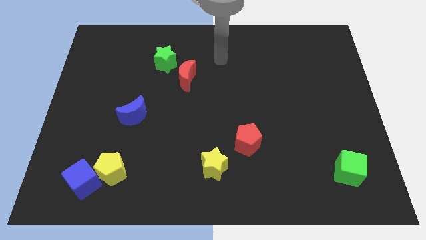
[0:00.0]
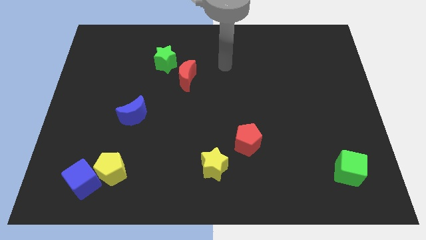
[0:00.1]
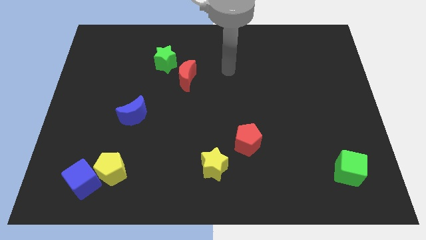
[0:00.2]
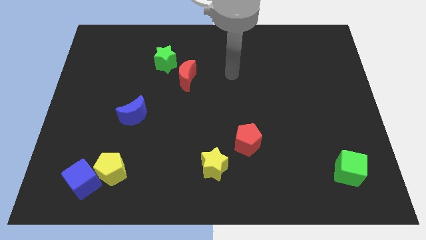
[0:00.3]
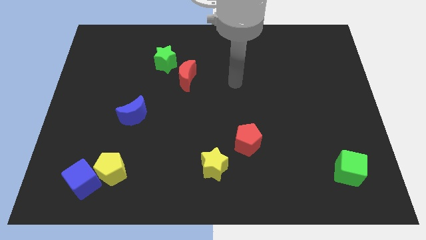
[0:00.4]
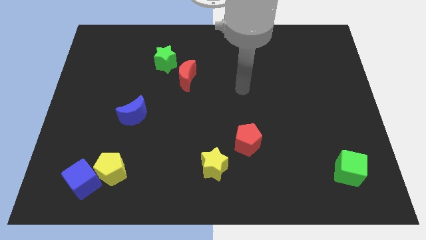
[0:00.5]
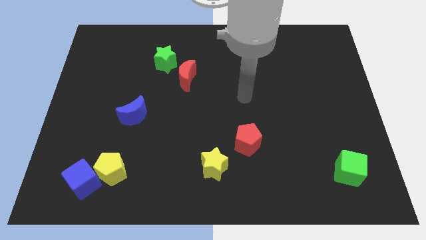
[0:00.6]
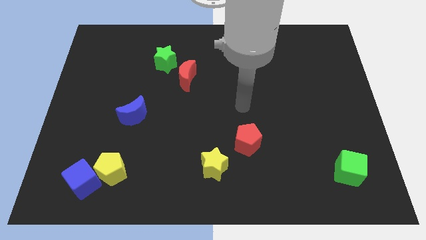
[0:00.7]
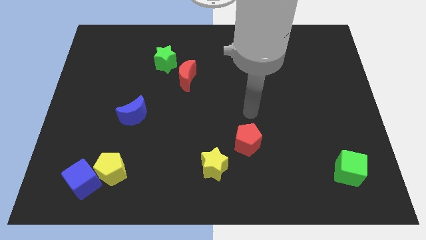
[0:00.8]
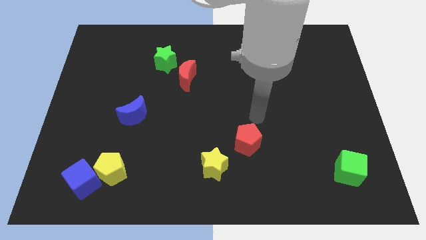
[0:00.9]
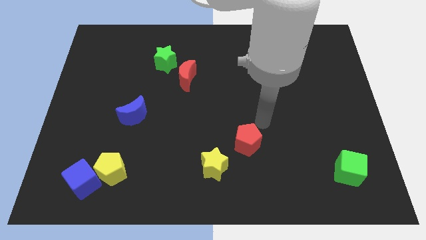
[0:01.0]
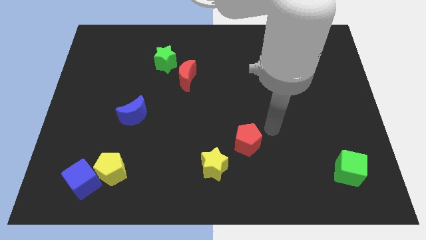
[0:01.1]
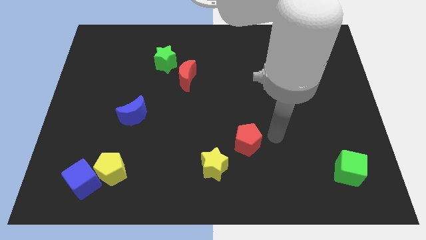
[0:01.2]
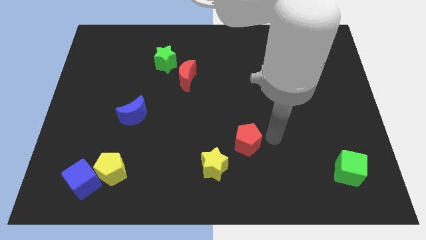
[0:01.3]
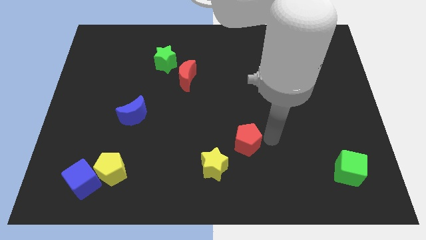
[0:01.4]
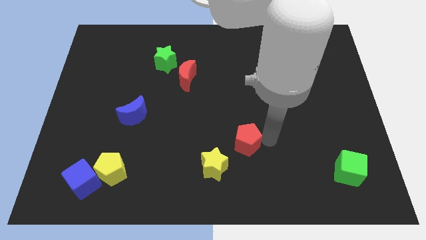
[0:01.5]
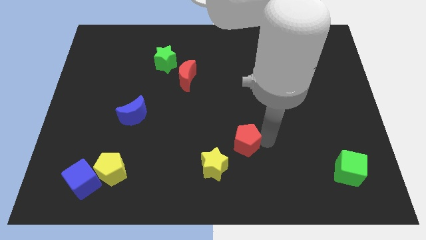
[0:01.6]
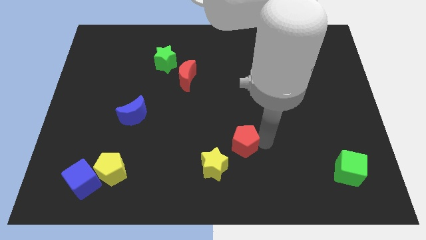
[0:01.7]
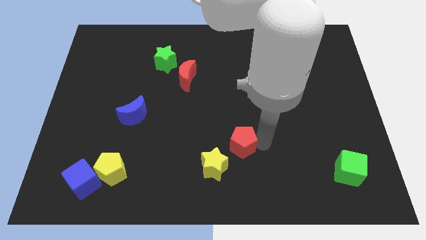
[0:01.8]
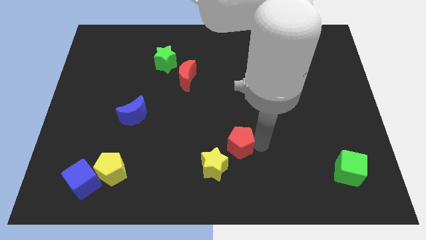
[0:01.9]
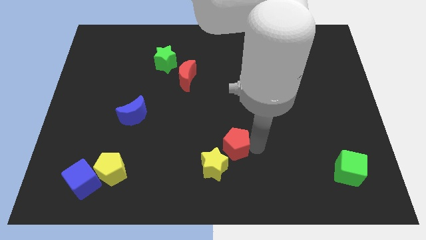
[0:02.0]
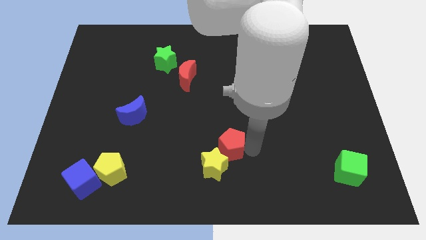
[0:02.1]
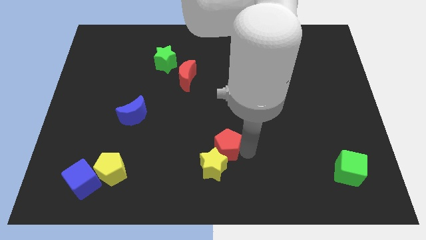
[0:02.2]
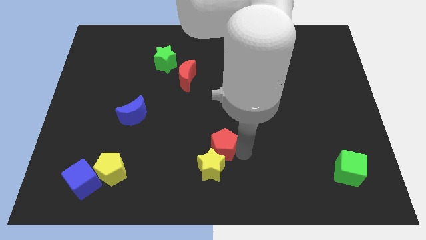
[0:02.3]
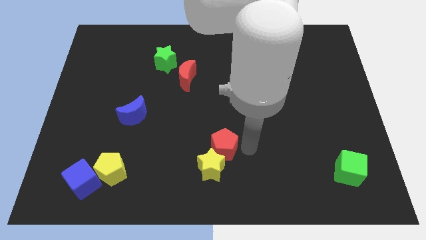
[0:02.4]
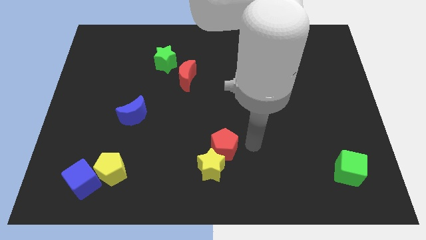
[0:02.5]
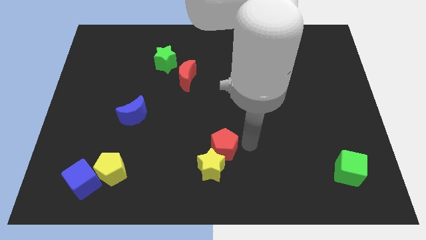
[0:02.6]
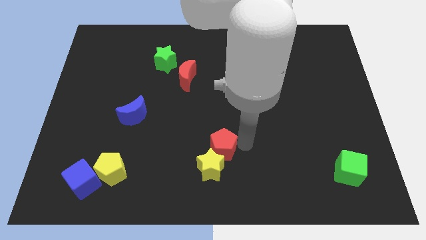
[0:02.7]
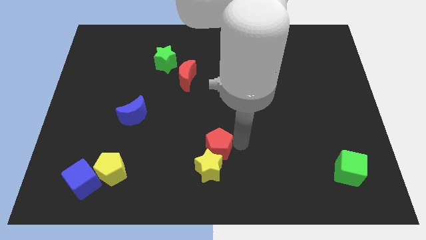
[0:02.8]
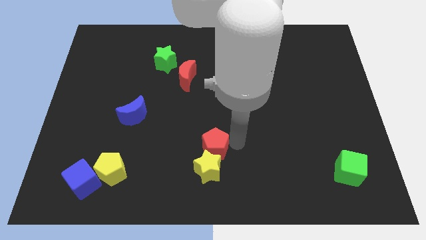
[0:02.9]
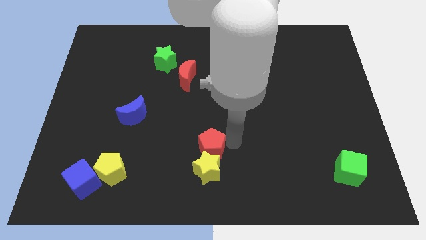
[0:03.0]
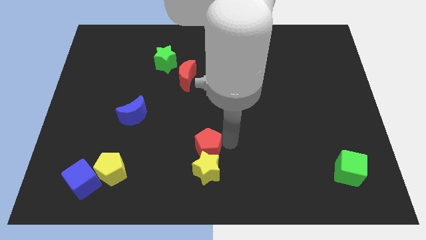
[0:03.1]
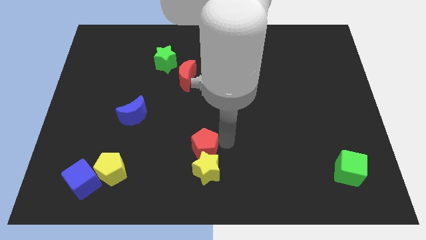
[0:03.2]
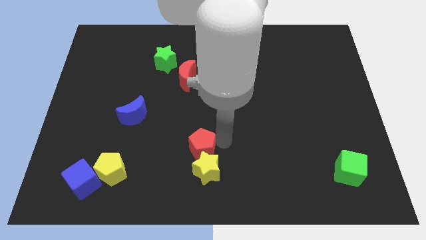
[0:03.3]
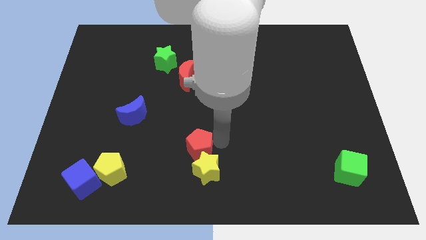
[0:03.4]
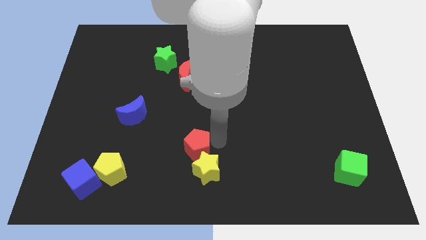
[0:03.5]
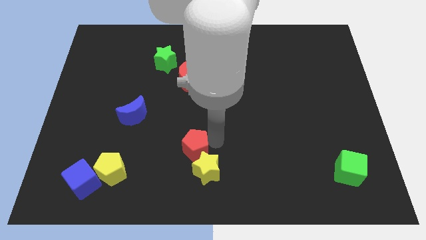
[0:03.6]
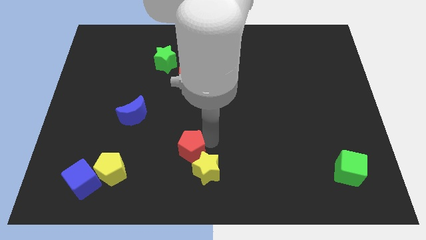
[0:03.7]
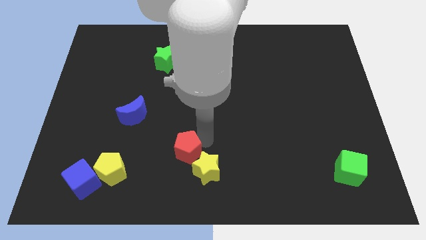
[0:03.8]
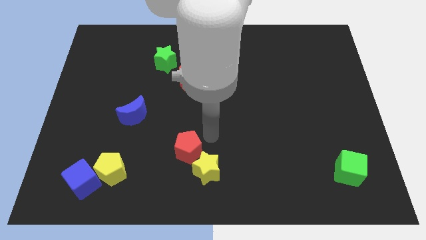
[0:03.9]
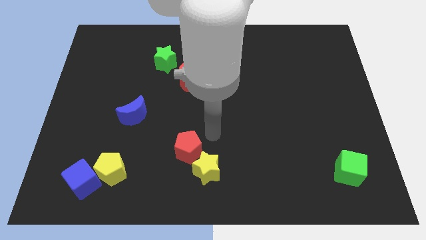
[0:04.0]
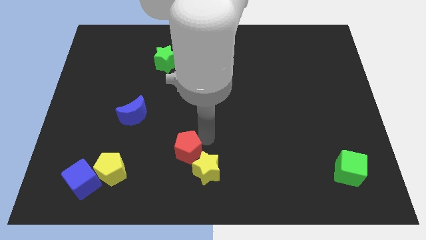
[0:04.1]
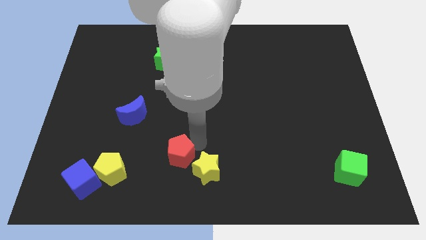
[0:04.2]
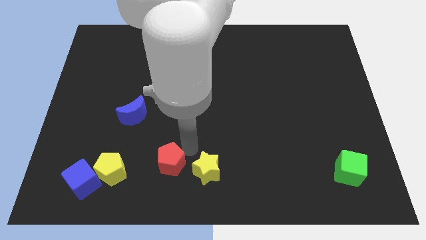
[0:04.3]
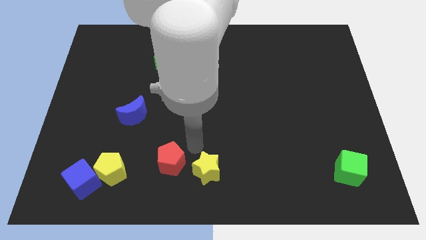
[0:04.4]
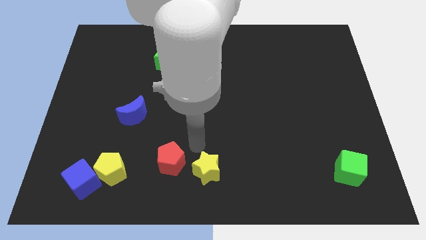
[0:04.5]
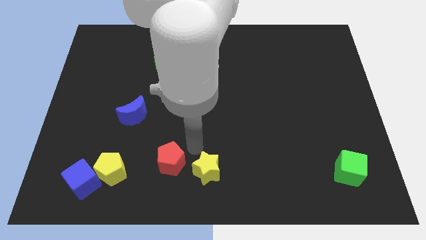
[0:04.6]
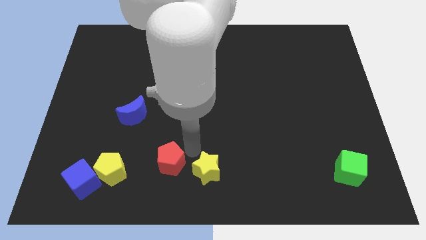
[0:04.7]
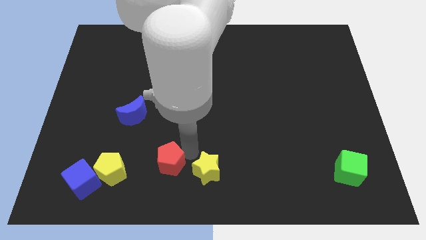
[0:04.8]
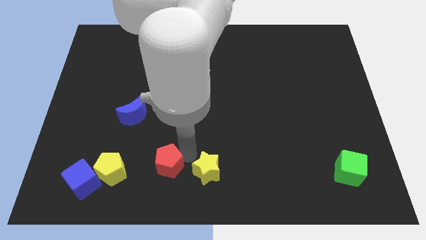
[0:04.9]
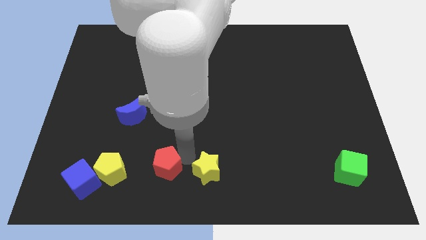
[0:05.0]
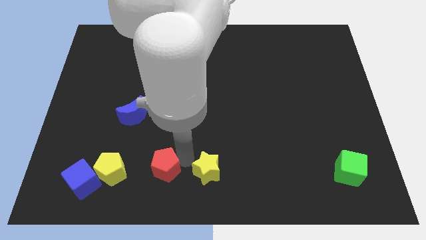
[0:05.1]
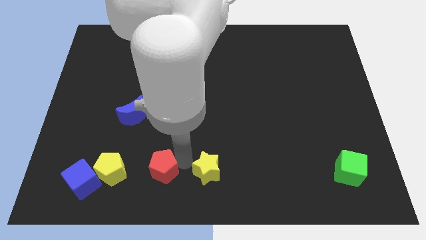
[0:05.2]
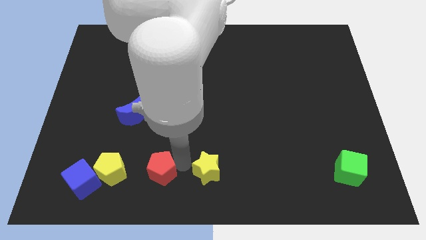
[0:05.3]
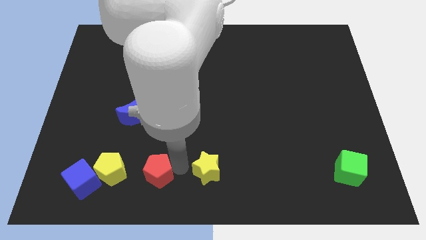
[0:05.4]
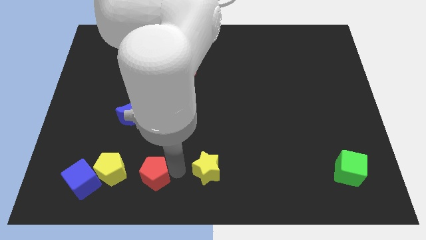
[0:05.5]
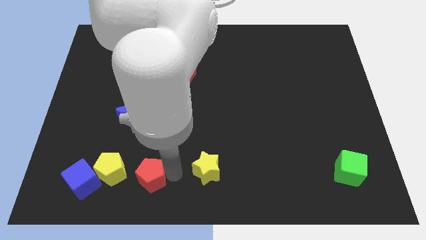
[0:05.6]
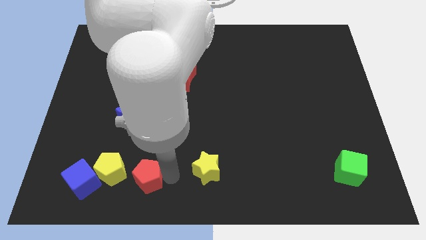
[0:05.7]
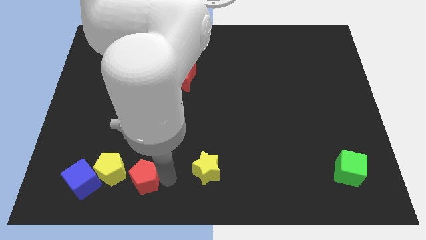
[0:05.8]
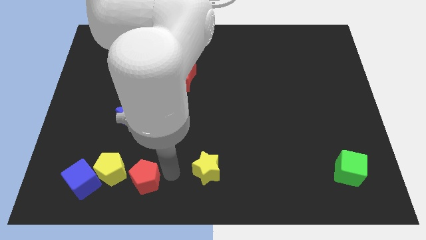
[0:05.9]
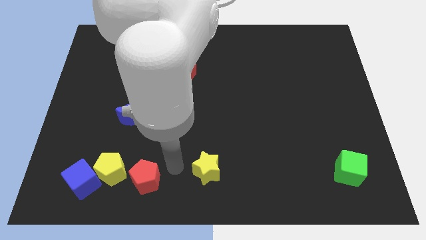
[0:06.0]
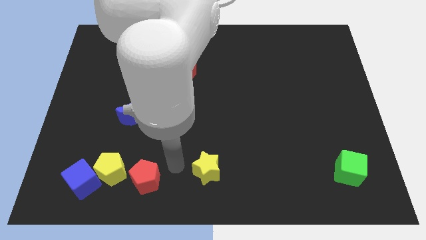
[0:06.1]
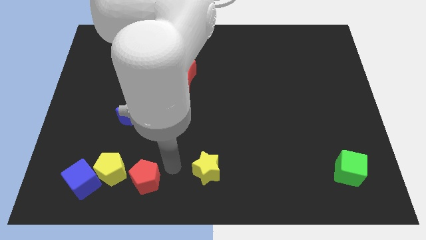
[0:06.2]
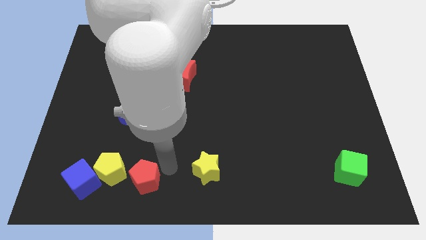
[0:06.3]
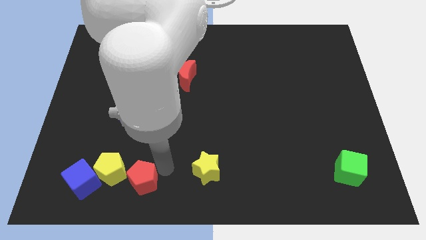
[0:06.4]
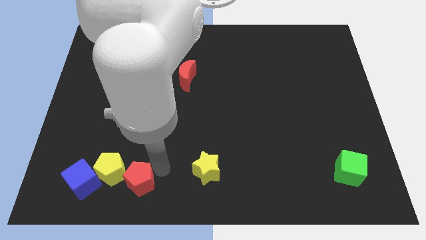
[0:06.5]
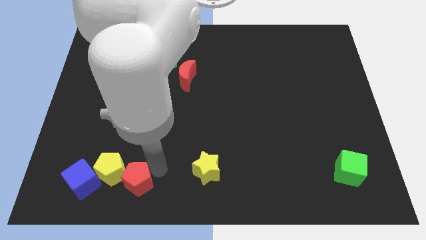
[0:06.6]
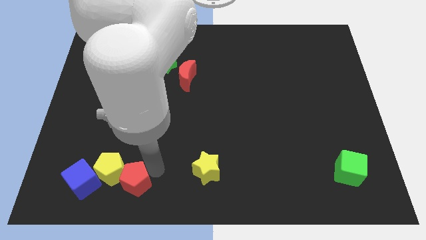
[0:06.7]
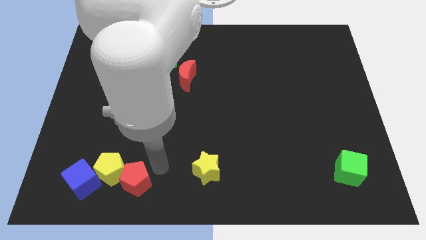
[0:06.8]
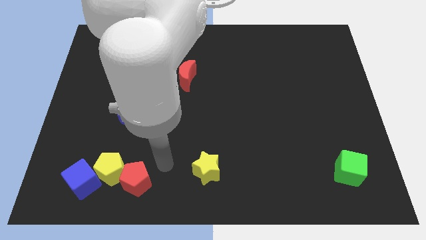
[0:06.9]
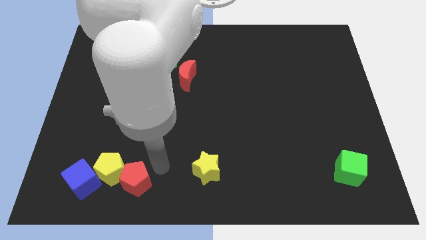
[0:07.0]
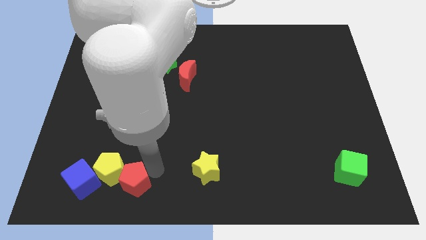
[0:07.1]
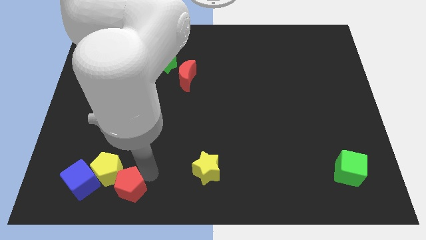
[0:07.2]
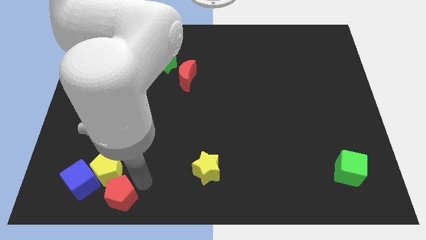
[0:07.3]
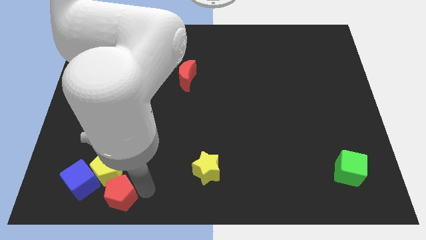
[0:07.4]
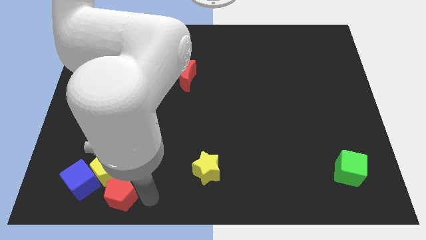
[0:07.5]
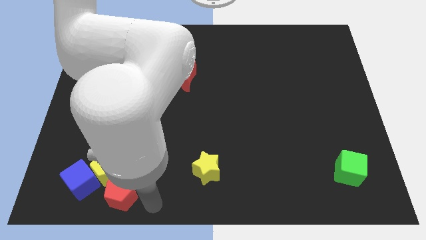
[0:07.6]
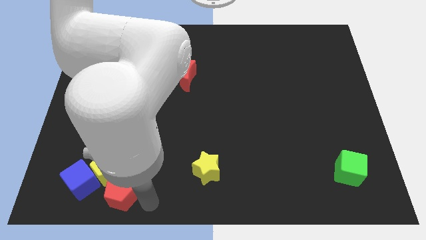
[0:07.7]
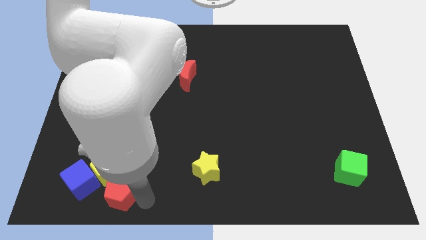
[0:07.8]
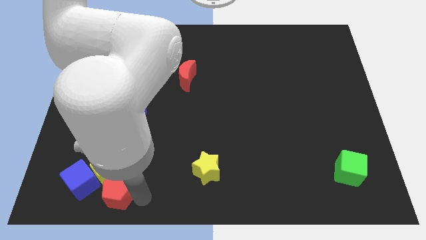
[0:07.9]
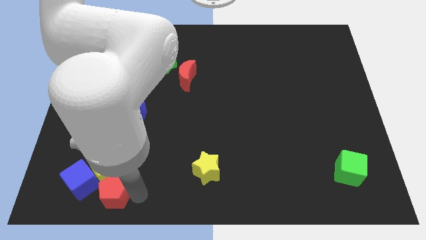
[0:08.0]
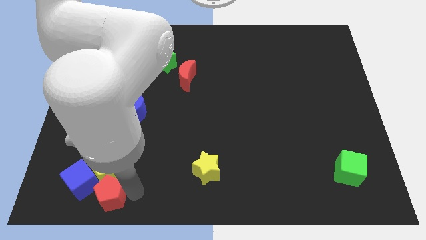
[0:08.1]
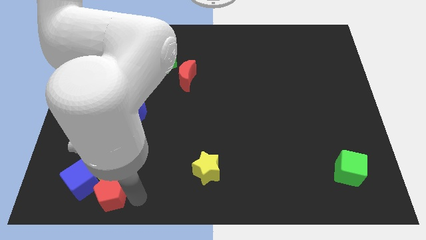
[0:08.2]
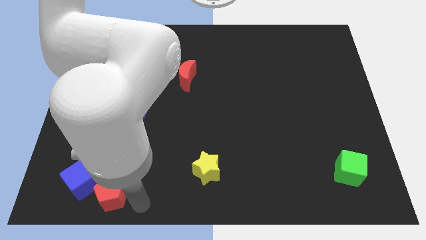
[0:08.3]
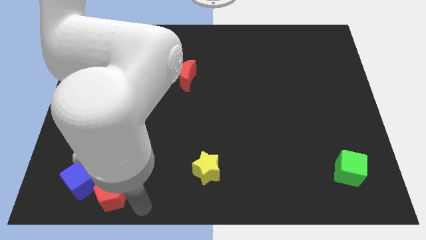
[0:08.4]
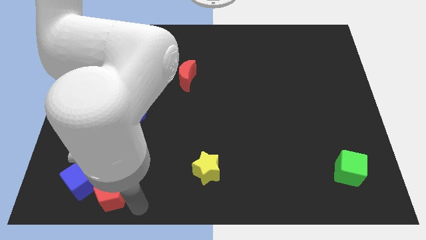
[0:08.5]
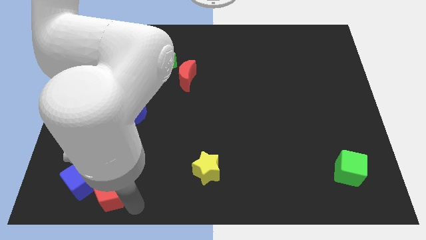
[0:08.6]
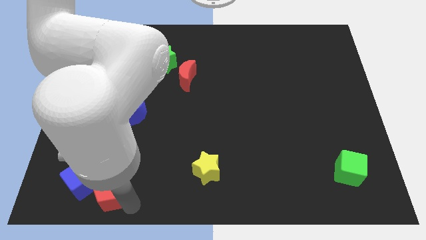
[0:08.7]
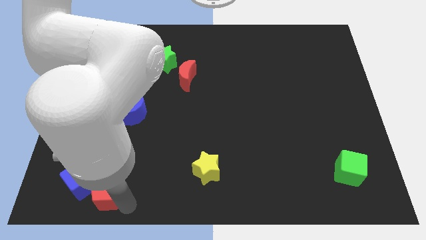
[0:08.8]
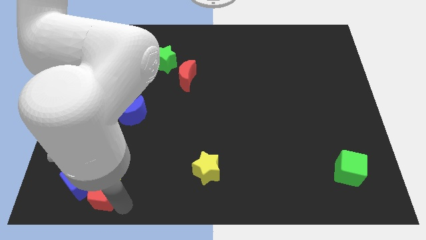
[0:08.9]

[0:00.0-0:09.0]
push the red pentagon next to the blue cube
